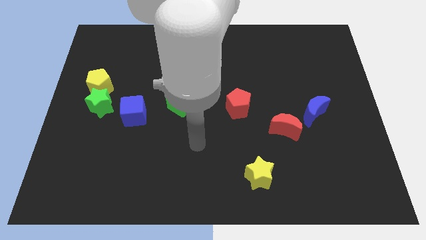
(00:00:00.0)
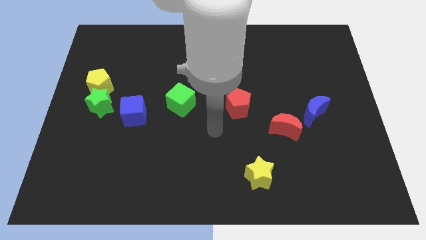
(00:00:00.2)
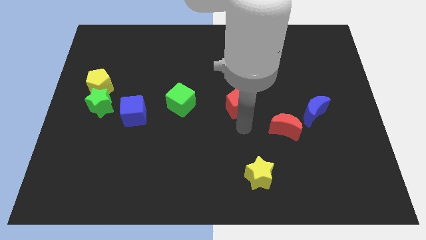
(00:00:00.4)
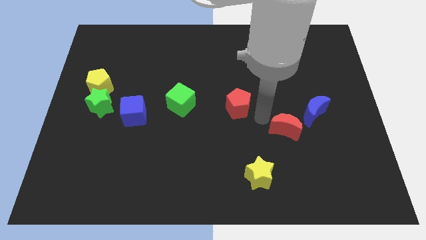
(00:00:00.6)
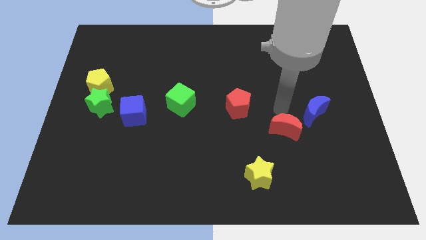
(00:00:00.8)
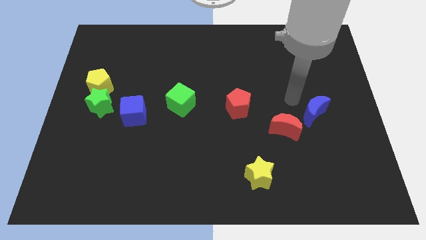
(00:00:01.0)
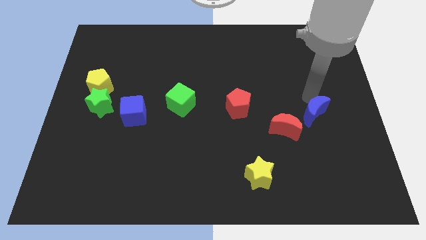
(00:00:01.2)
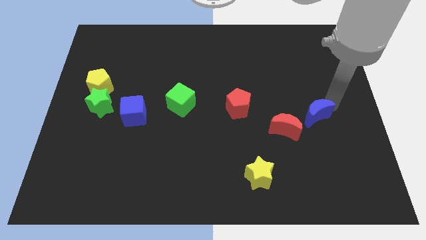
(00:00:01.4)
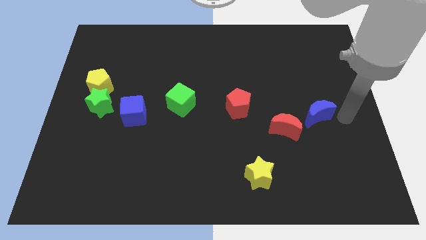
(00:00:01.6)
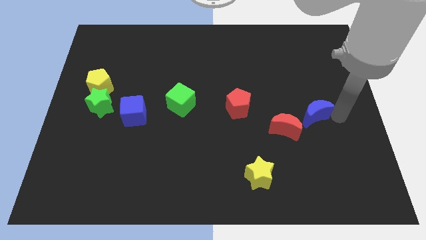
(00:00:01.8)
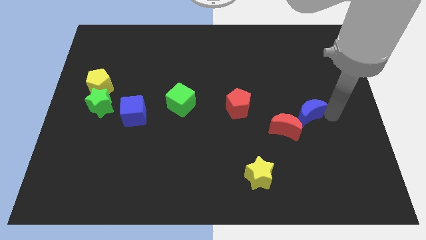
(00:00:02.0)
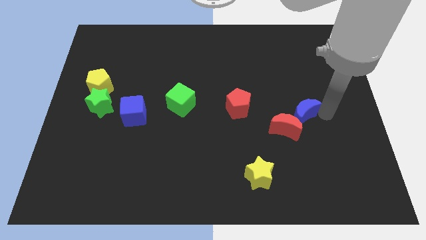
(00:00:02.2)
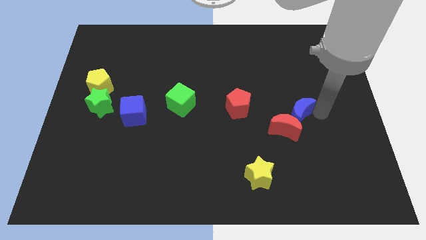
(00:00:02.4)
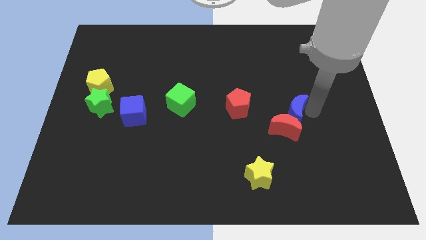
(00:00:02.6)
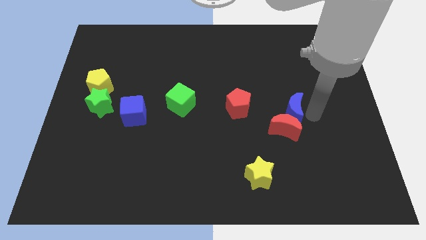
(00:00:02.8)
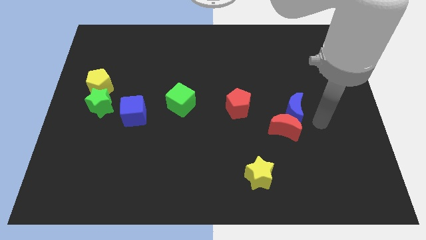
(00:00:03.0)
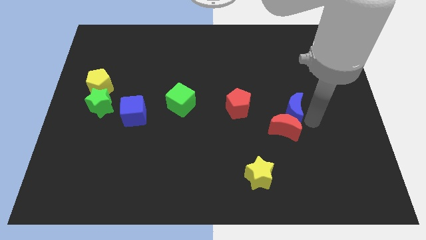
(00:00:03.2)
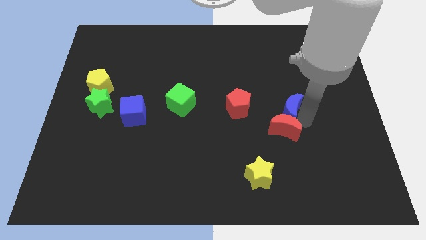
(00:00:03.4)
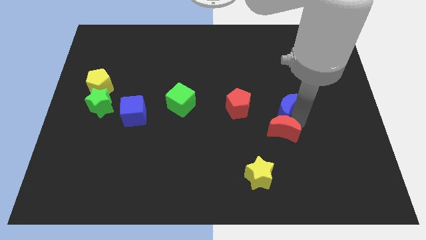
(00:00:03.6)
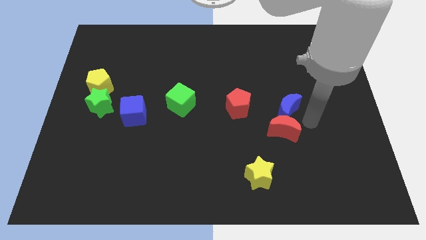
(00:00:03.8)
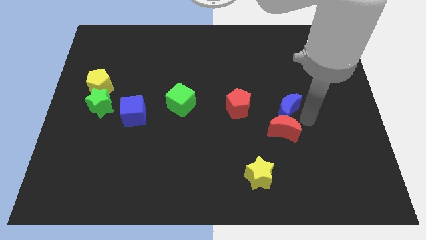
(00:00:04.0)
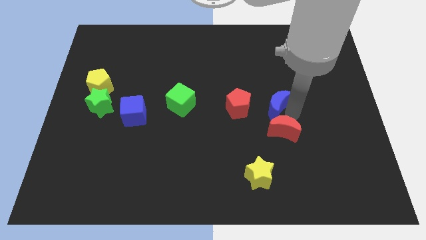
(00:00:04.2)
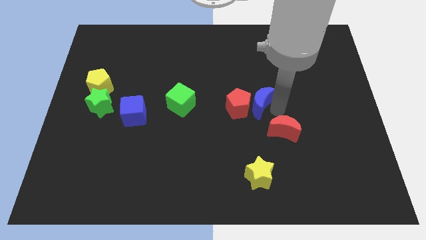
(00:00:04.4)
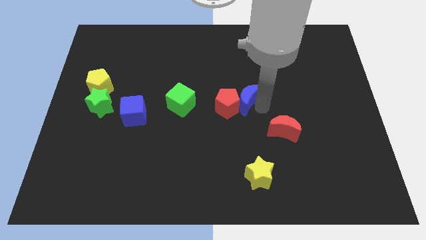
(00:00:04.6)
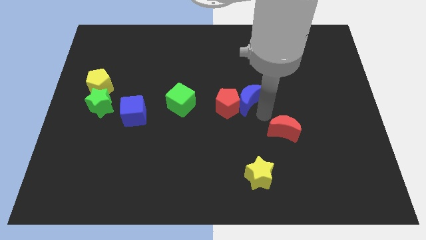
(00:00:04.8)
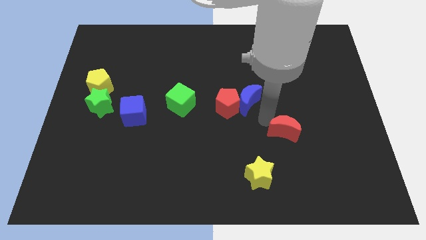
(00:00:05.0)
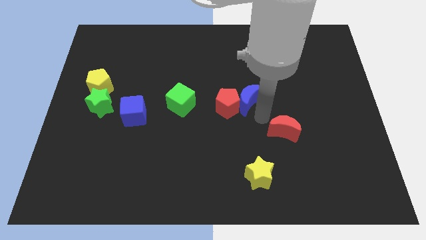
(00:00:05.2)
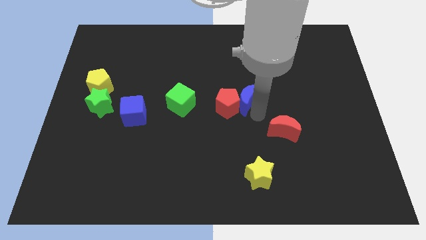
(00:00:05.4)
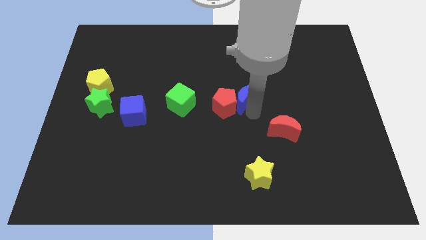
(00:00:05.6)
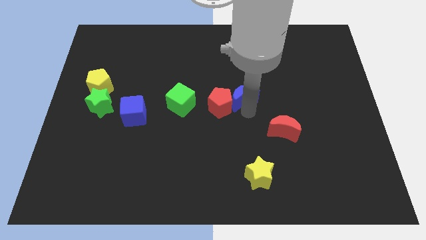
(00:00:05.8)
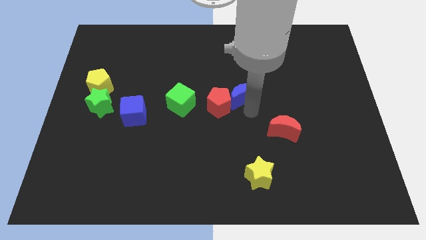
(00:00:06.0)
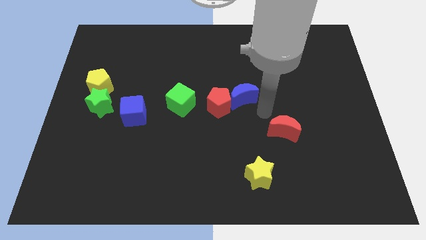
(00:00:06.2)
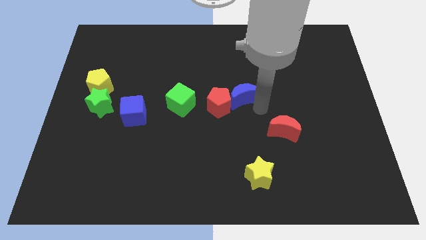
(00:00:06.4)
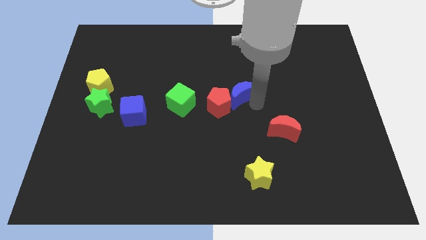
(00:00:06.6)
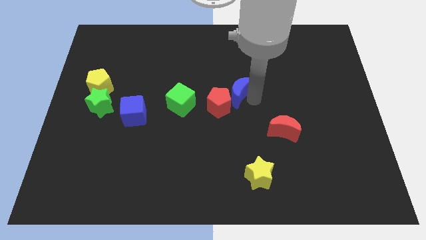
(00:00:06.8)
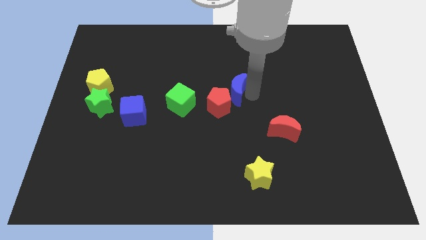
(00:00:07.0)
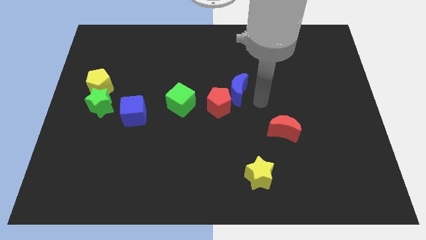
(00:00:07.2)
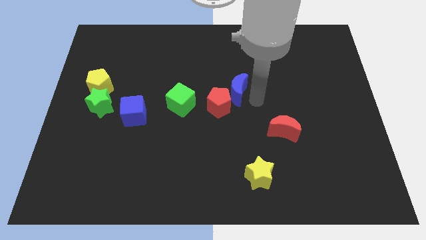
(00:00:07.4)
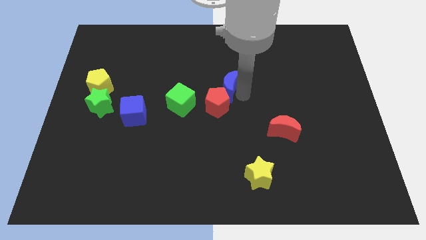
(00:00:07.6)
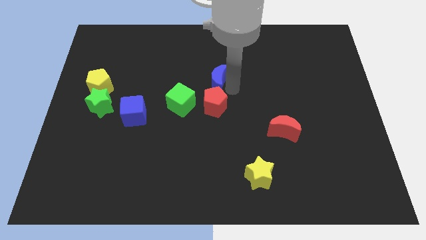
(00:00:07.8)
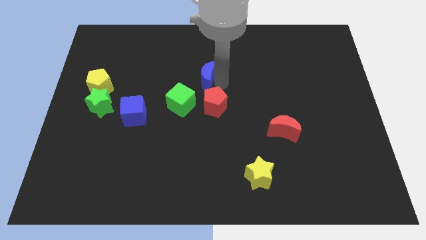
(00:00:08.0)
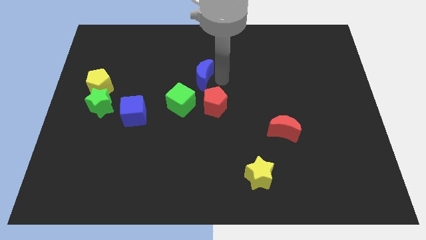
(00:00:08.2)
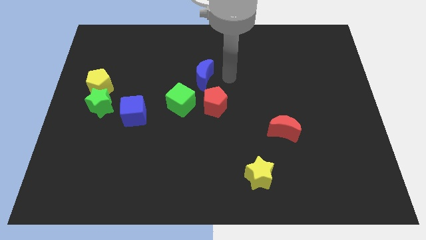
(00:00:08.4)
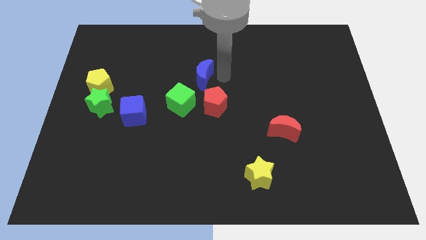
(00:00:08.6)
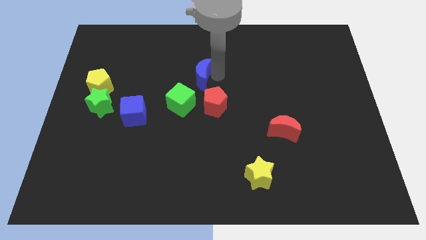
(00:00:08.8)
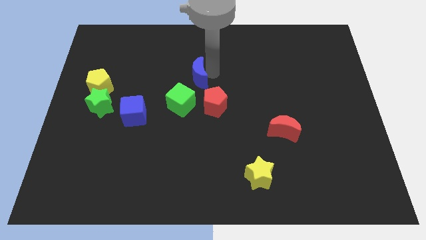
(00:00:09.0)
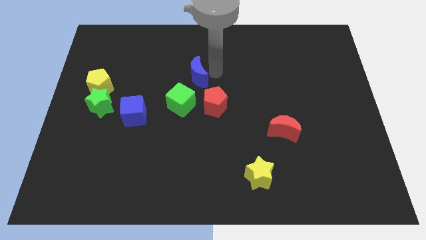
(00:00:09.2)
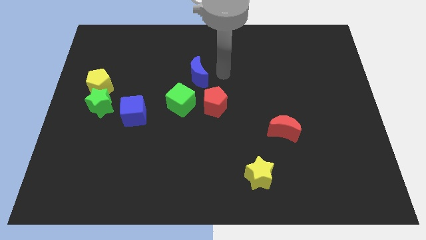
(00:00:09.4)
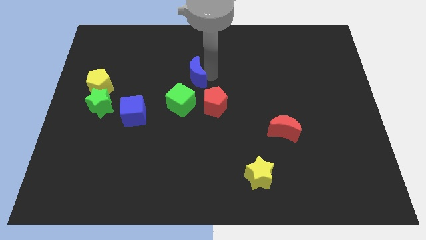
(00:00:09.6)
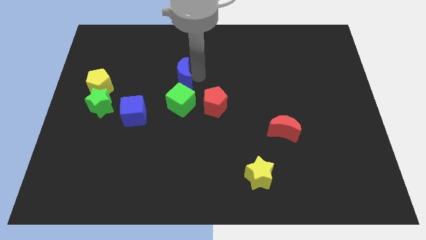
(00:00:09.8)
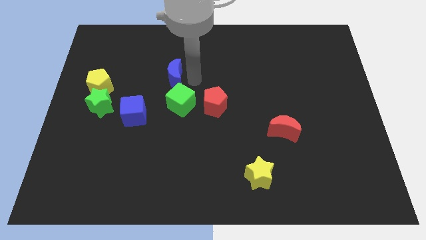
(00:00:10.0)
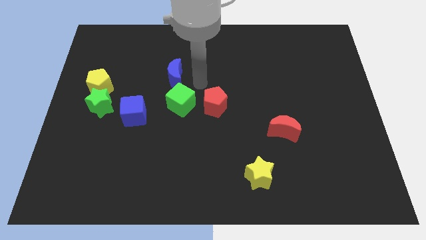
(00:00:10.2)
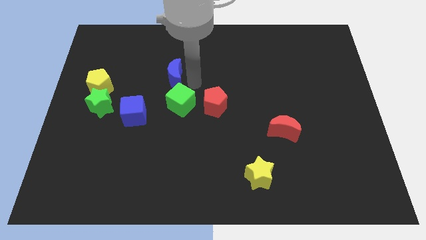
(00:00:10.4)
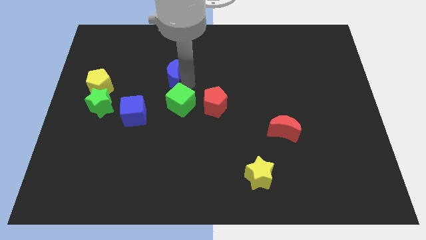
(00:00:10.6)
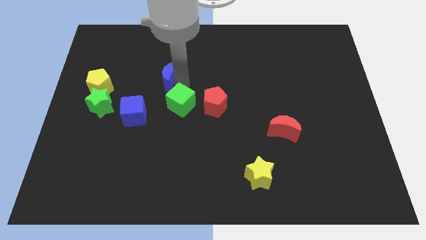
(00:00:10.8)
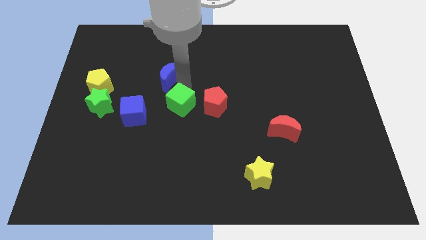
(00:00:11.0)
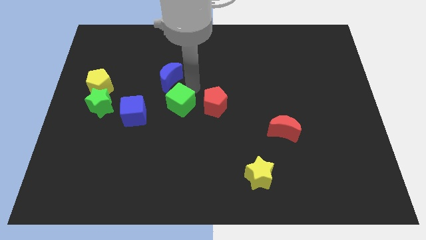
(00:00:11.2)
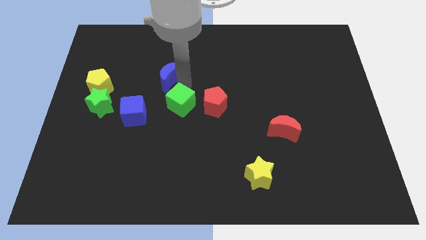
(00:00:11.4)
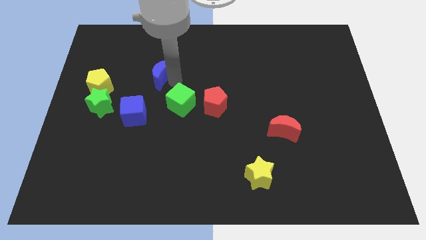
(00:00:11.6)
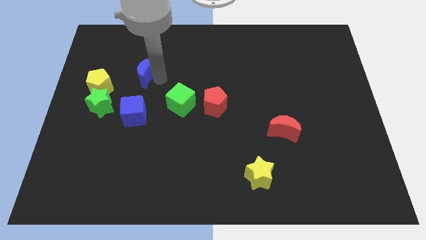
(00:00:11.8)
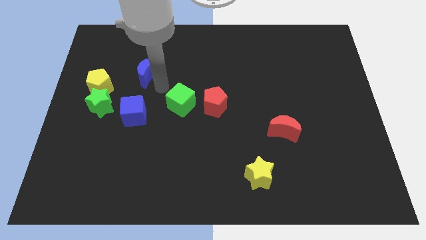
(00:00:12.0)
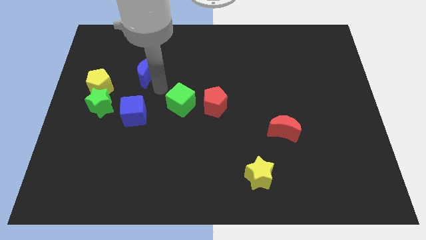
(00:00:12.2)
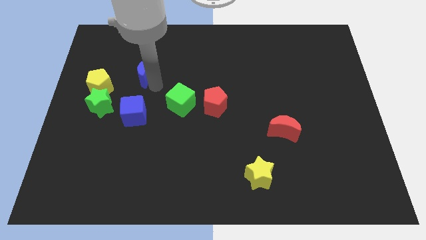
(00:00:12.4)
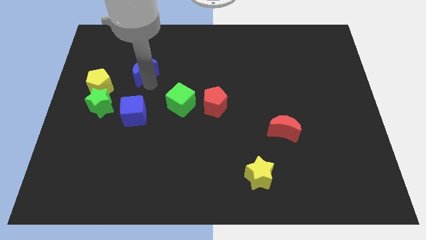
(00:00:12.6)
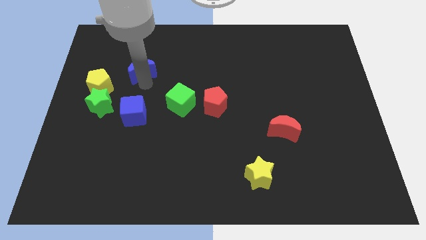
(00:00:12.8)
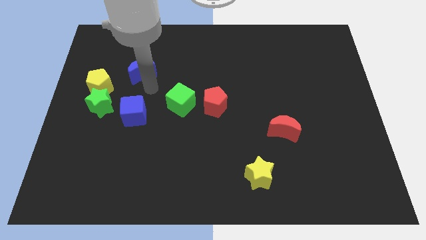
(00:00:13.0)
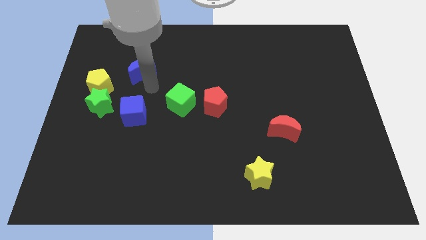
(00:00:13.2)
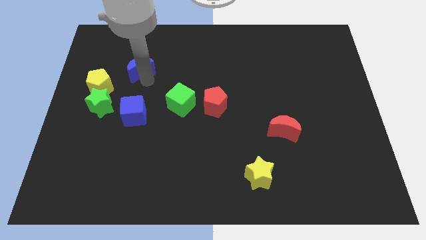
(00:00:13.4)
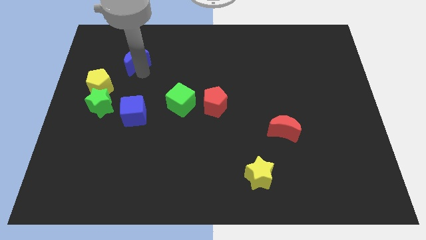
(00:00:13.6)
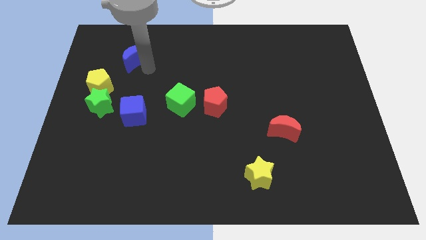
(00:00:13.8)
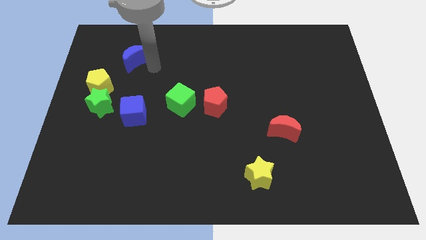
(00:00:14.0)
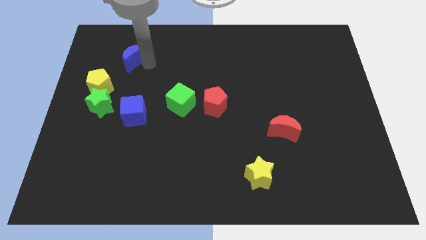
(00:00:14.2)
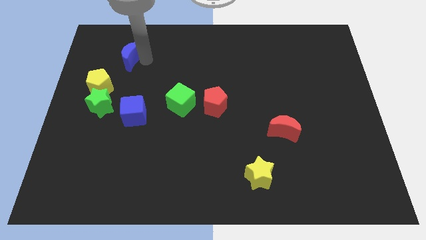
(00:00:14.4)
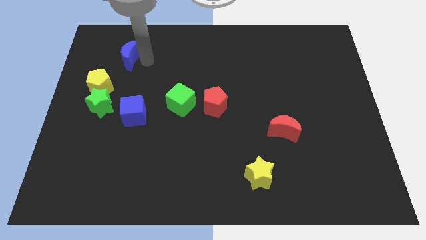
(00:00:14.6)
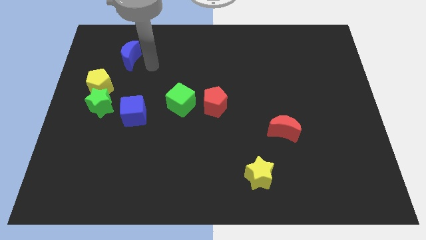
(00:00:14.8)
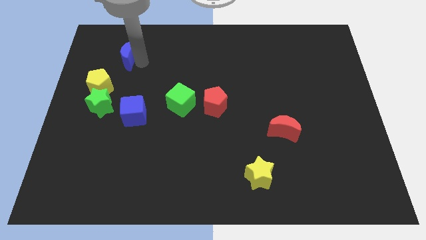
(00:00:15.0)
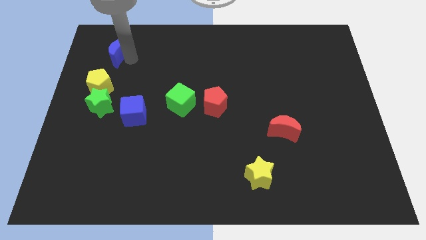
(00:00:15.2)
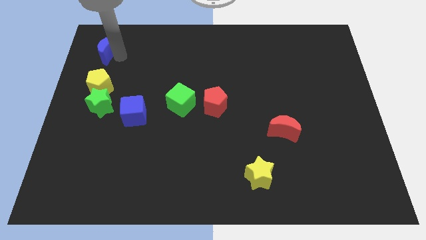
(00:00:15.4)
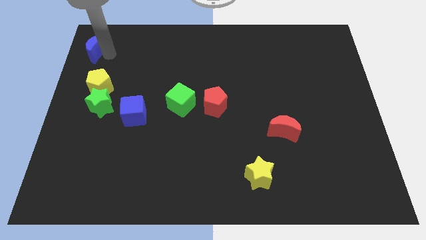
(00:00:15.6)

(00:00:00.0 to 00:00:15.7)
put the blue moon to the top left of the board
